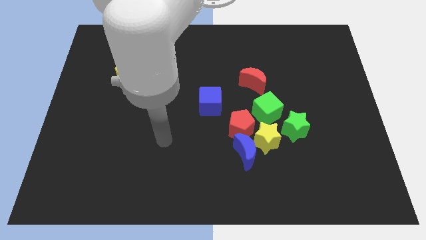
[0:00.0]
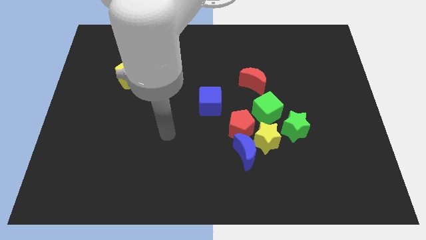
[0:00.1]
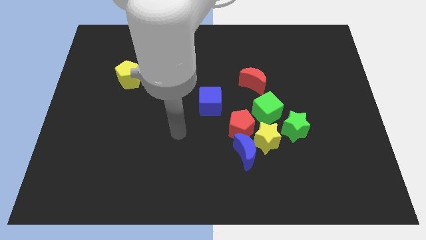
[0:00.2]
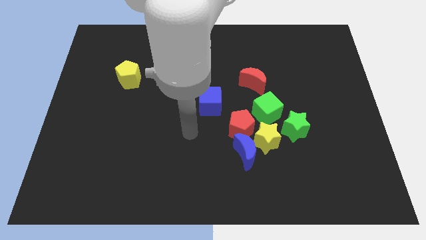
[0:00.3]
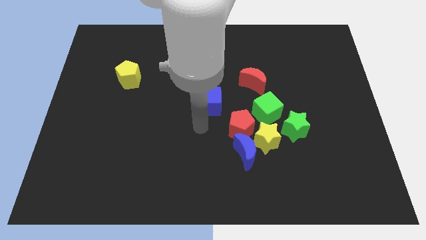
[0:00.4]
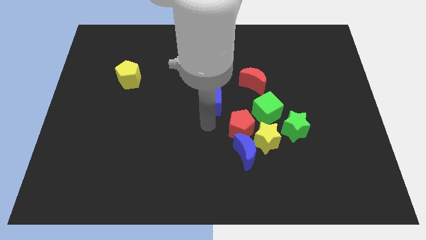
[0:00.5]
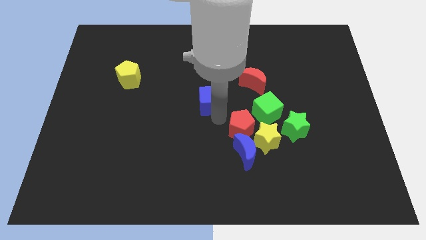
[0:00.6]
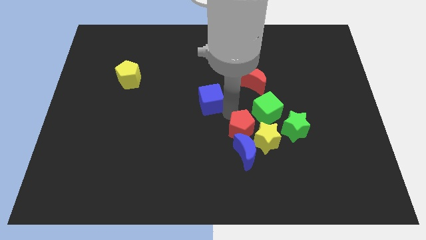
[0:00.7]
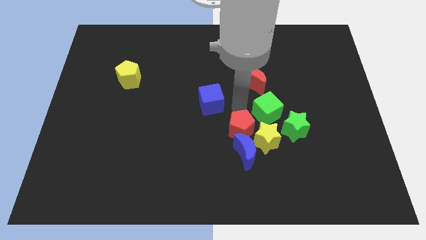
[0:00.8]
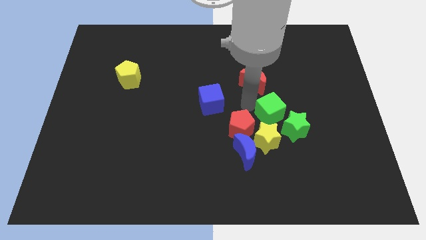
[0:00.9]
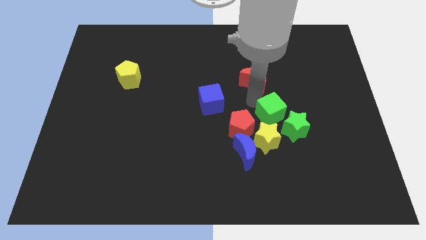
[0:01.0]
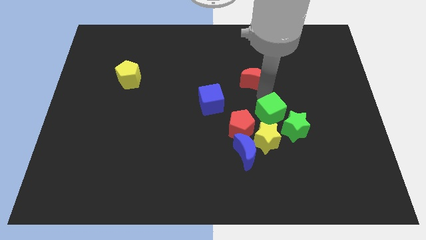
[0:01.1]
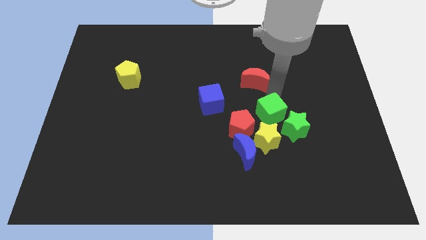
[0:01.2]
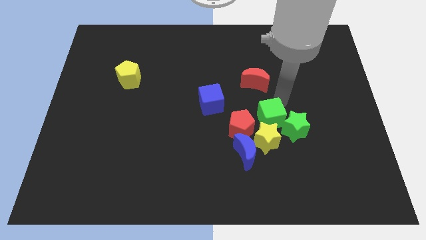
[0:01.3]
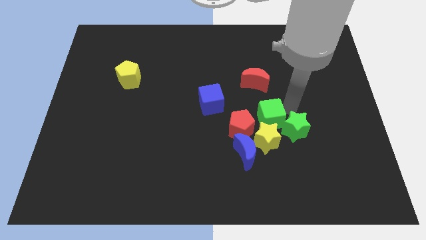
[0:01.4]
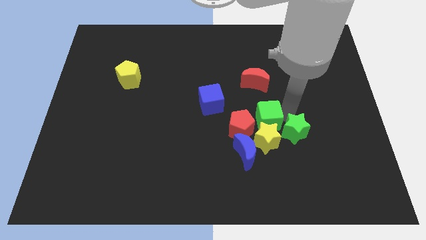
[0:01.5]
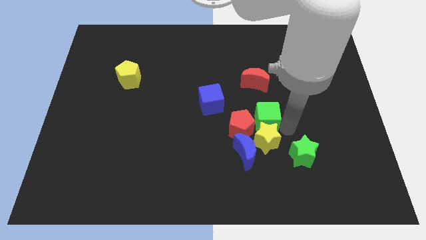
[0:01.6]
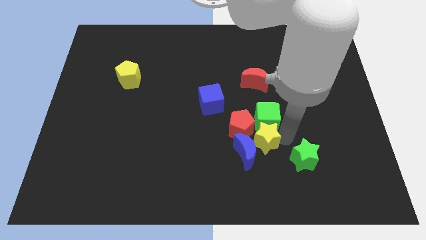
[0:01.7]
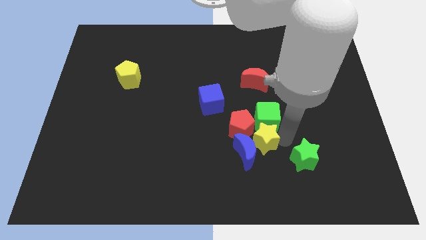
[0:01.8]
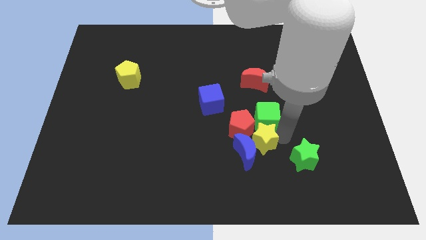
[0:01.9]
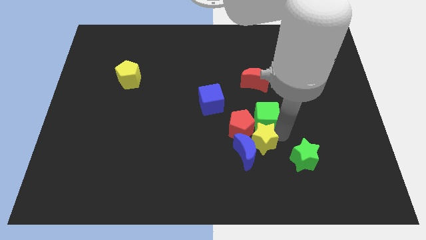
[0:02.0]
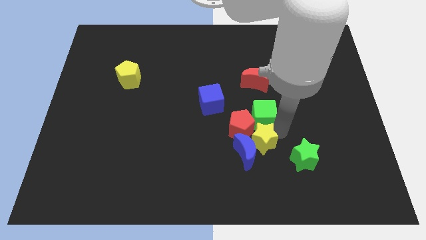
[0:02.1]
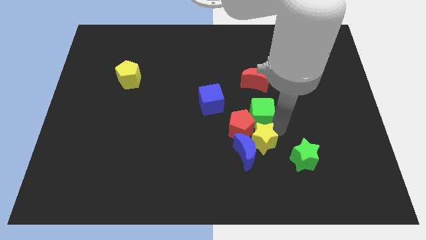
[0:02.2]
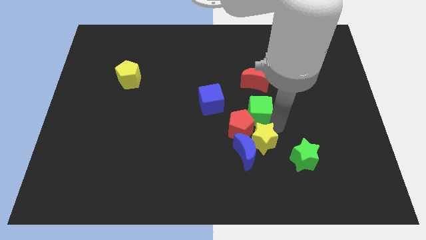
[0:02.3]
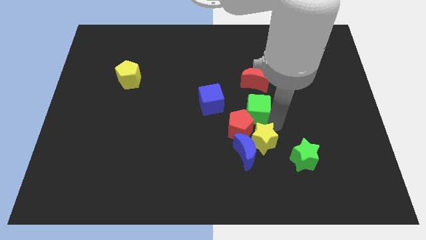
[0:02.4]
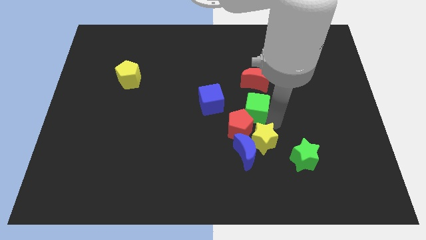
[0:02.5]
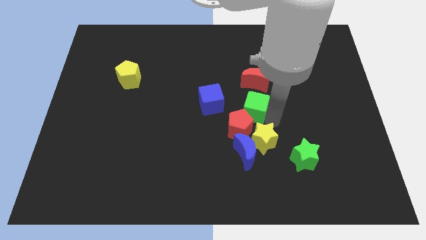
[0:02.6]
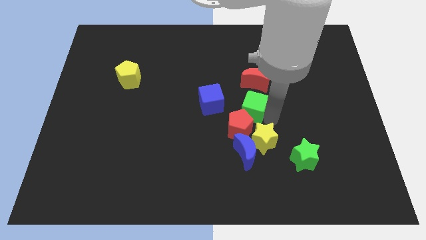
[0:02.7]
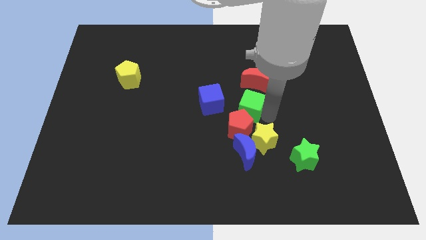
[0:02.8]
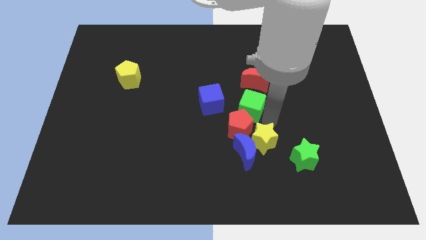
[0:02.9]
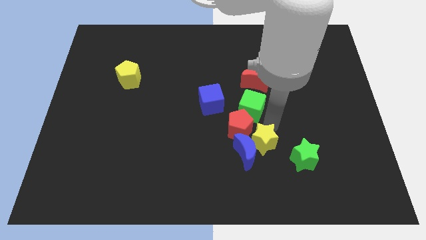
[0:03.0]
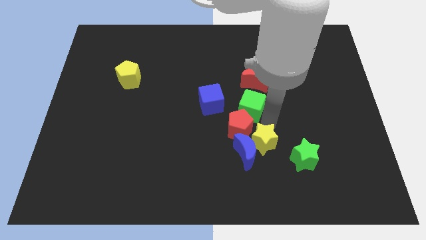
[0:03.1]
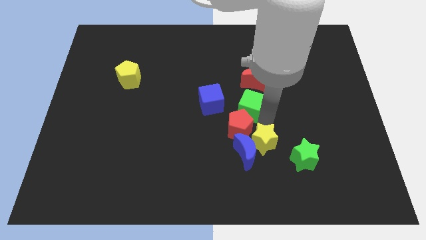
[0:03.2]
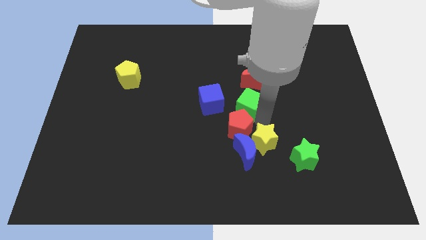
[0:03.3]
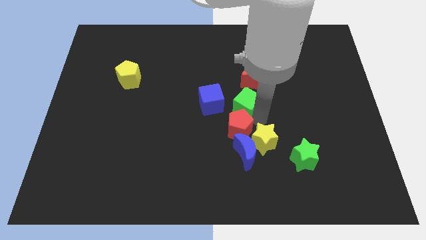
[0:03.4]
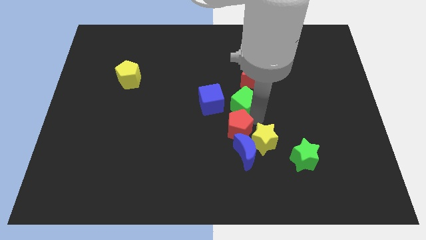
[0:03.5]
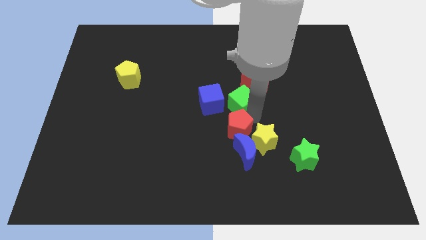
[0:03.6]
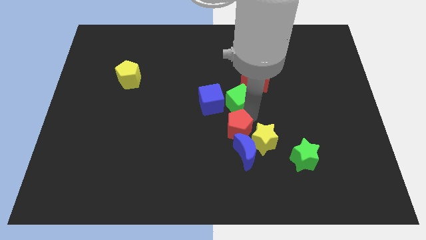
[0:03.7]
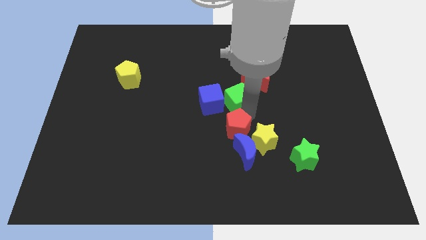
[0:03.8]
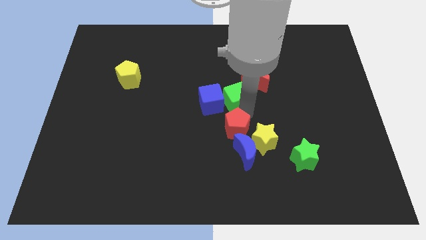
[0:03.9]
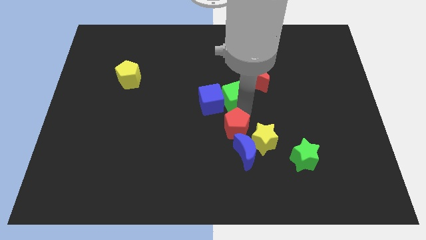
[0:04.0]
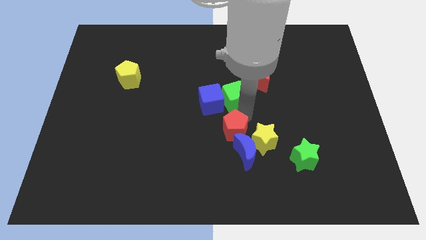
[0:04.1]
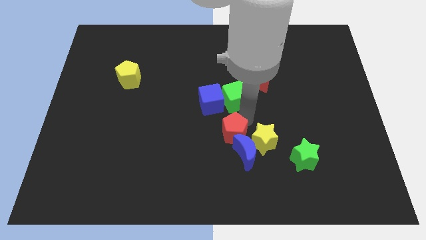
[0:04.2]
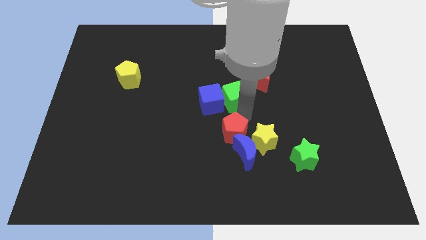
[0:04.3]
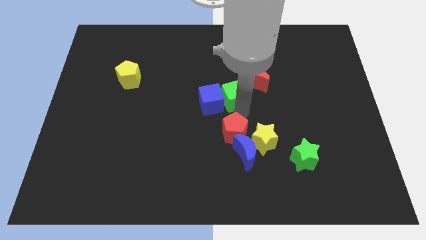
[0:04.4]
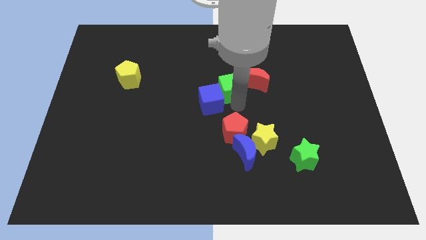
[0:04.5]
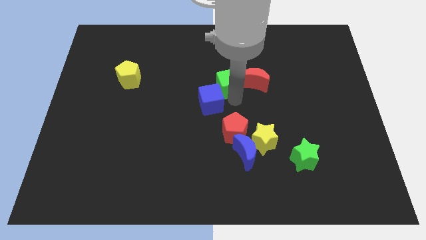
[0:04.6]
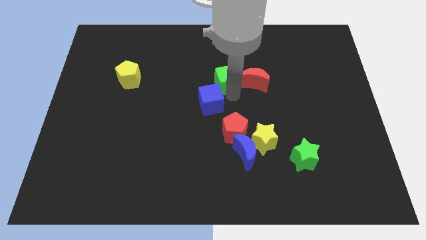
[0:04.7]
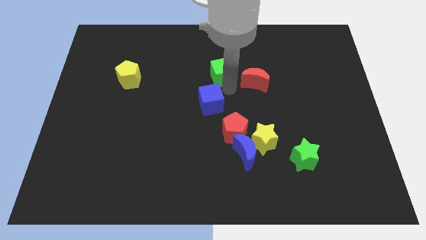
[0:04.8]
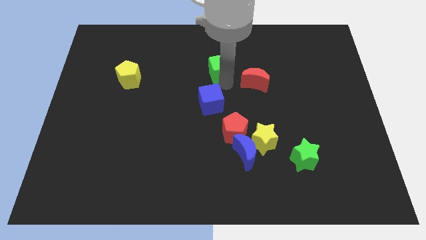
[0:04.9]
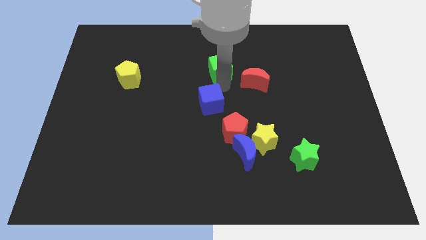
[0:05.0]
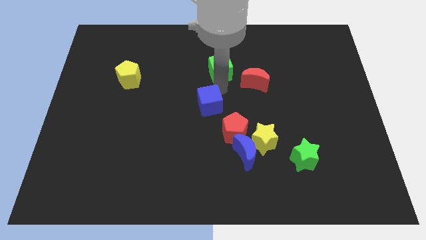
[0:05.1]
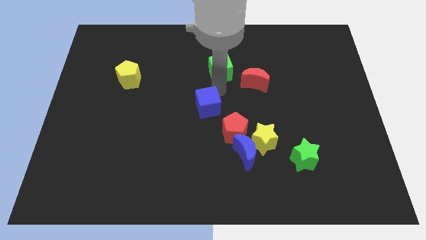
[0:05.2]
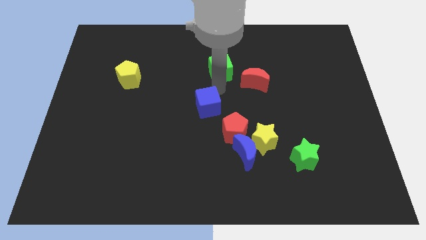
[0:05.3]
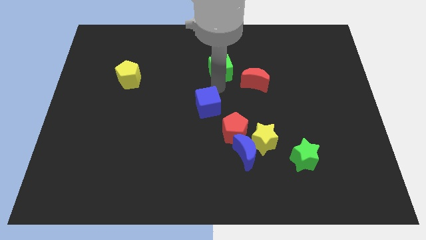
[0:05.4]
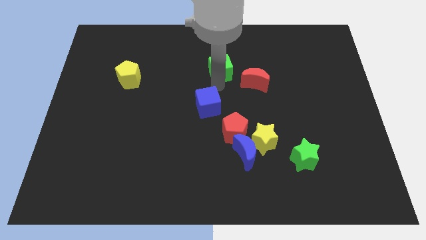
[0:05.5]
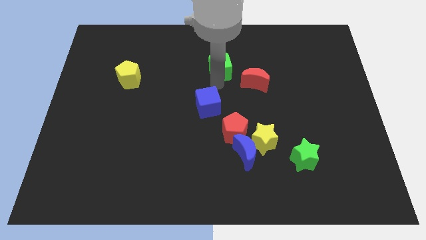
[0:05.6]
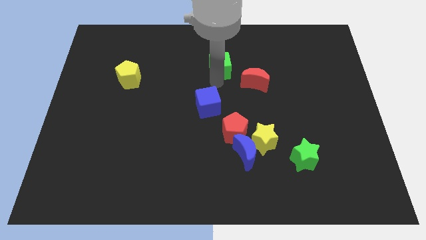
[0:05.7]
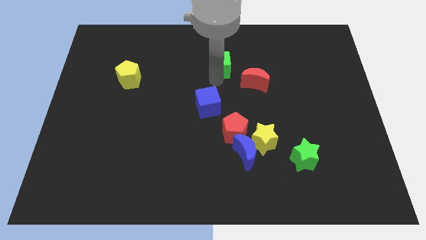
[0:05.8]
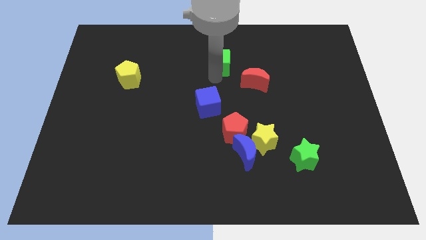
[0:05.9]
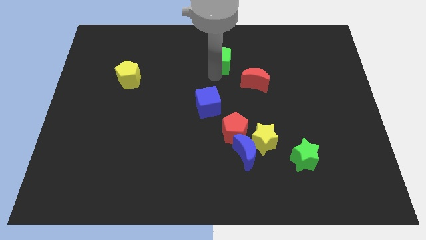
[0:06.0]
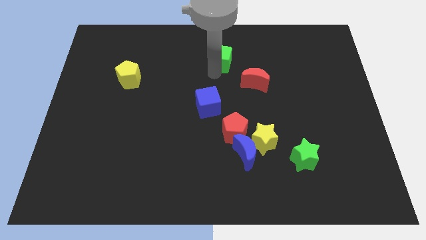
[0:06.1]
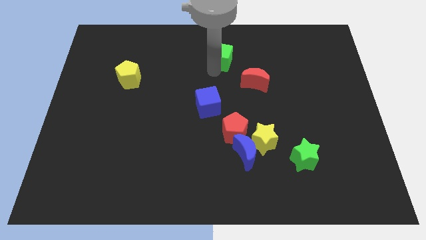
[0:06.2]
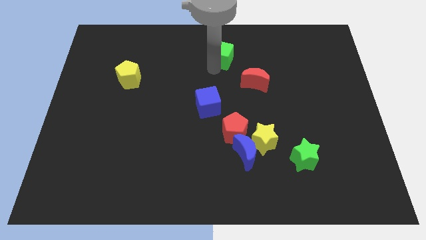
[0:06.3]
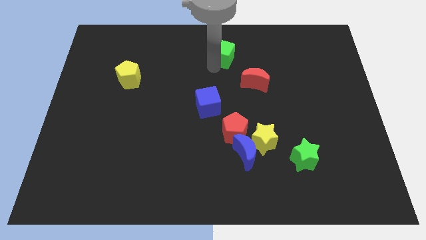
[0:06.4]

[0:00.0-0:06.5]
move the green cube to the towards your base
